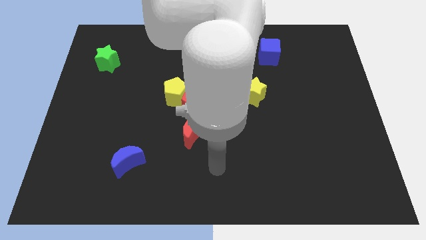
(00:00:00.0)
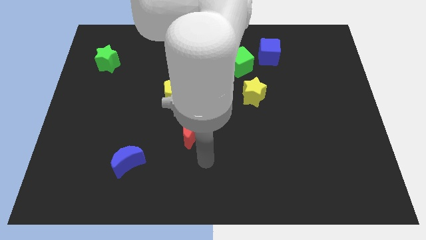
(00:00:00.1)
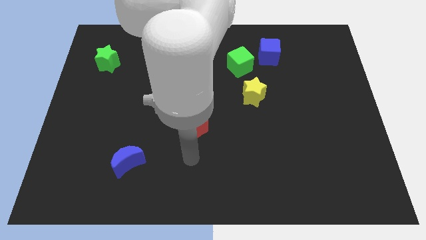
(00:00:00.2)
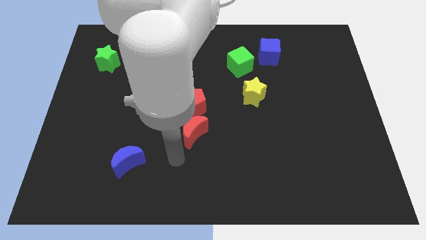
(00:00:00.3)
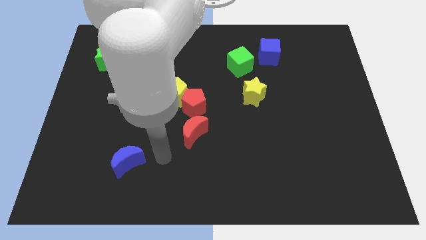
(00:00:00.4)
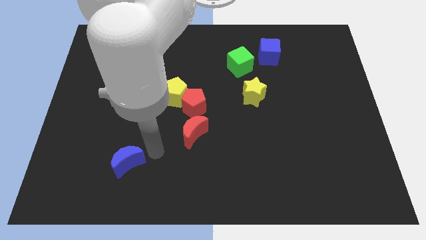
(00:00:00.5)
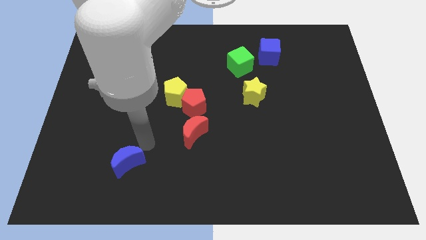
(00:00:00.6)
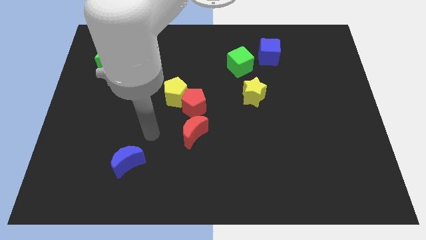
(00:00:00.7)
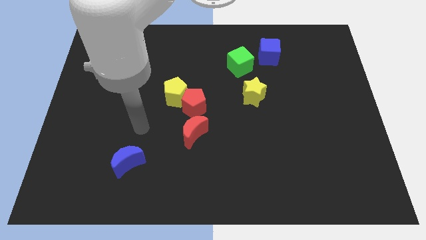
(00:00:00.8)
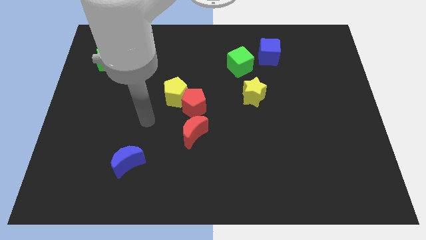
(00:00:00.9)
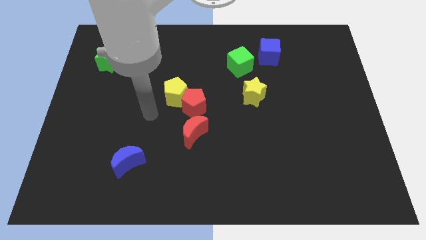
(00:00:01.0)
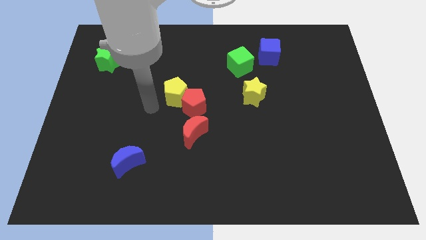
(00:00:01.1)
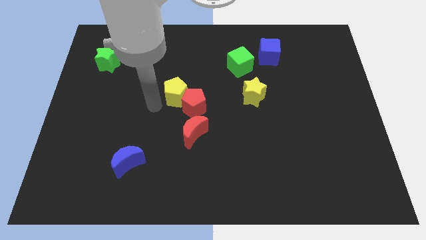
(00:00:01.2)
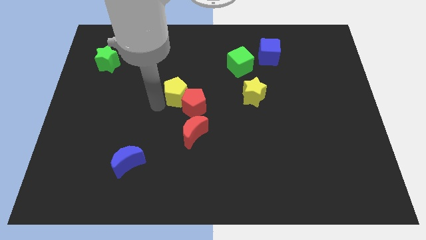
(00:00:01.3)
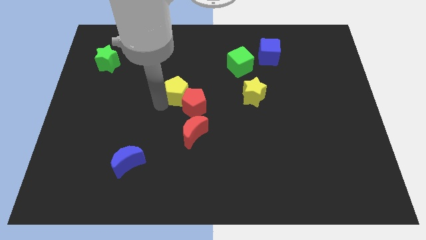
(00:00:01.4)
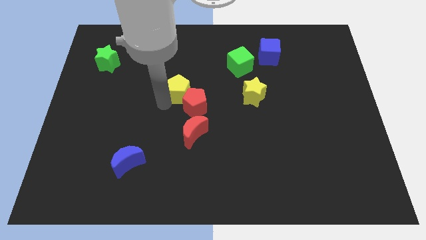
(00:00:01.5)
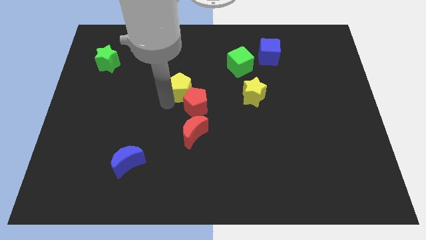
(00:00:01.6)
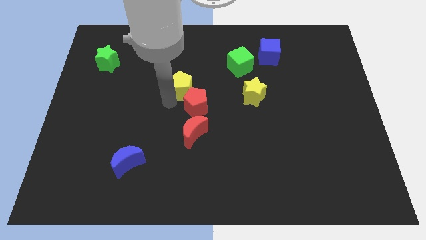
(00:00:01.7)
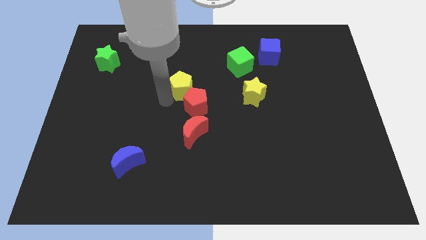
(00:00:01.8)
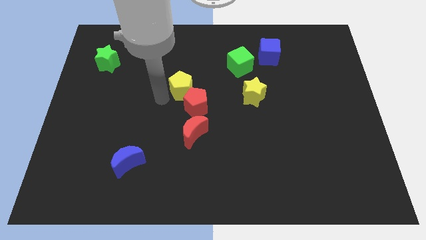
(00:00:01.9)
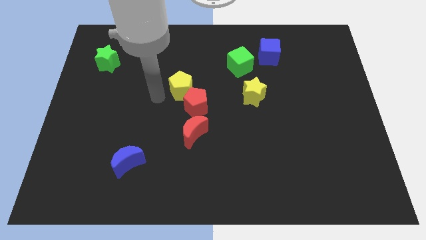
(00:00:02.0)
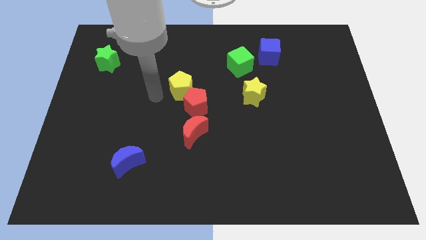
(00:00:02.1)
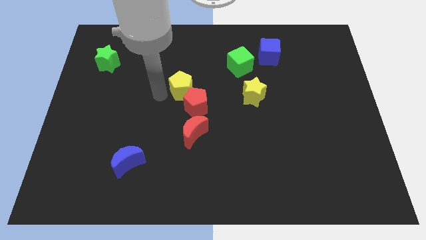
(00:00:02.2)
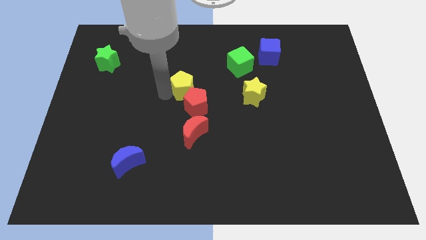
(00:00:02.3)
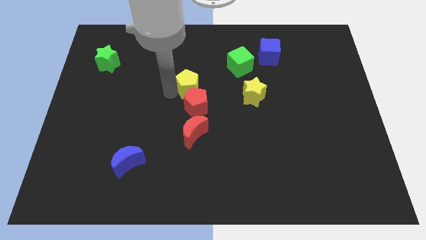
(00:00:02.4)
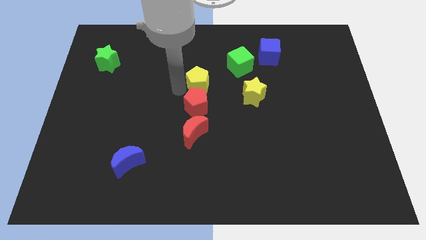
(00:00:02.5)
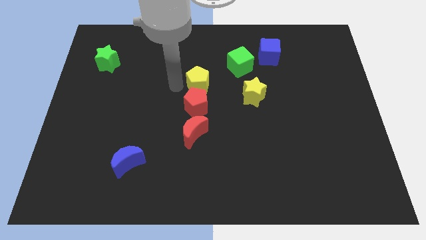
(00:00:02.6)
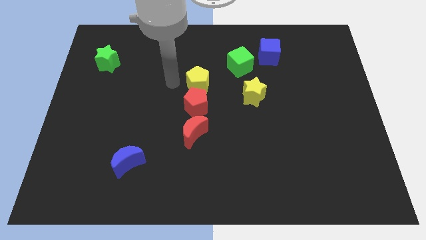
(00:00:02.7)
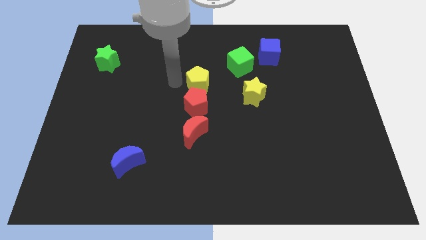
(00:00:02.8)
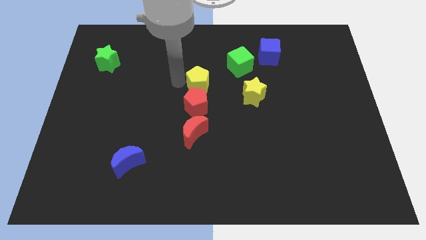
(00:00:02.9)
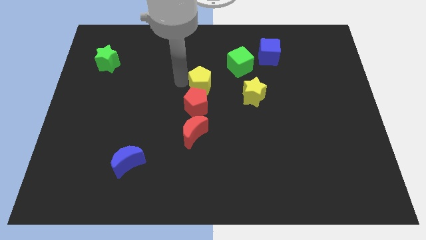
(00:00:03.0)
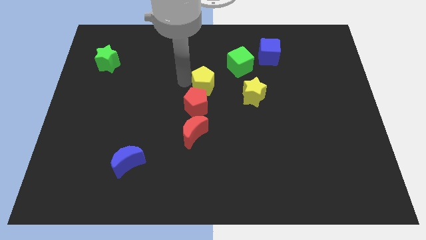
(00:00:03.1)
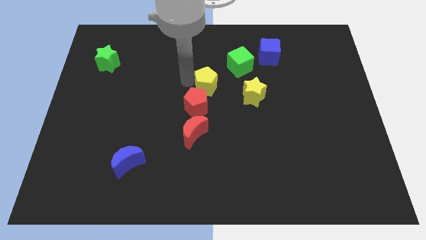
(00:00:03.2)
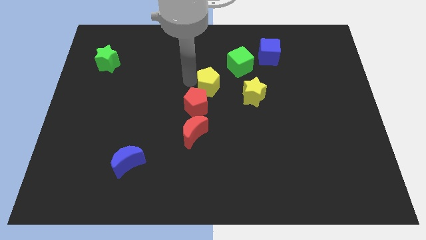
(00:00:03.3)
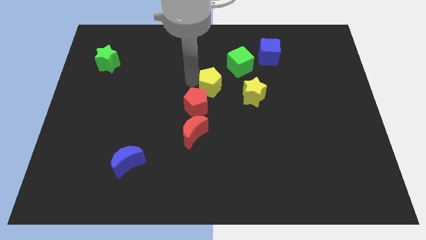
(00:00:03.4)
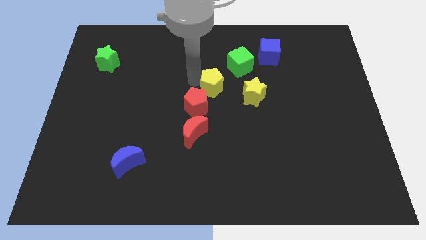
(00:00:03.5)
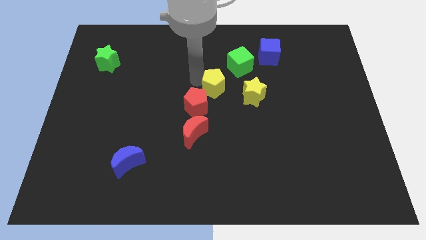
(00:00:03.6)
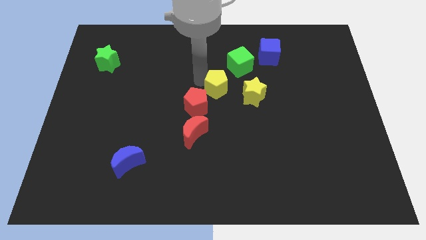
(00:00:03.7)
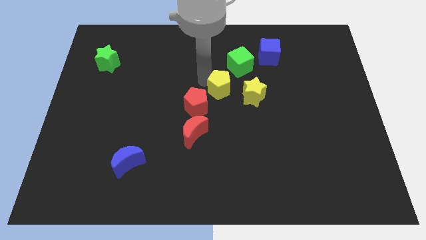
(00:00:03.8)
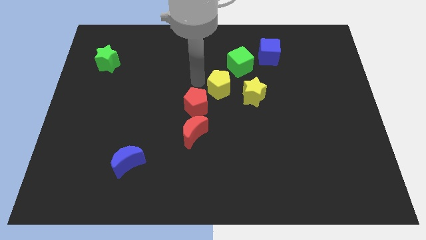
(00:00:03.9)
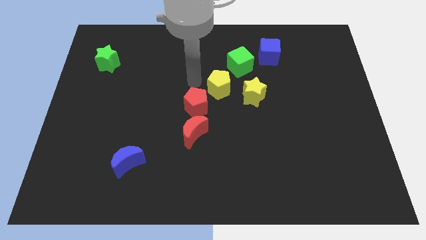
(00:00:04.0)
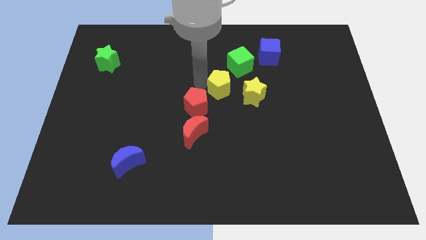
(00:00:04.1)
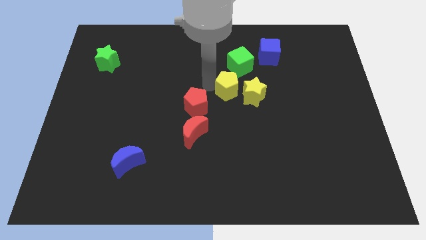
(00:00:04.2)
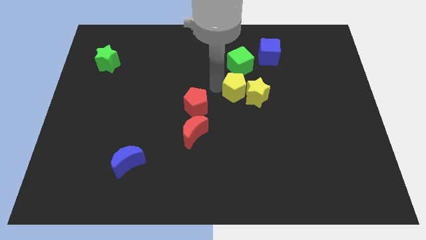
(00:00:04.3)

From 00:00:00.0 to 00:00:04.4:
move the yellow pentagon to the yellow star

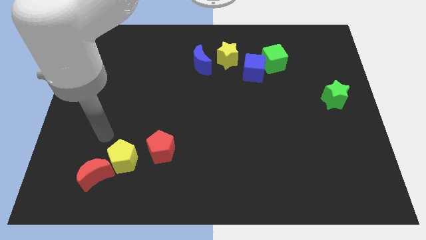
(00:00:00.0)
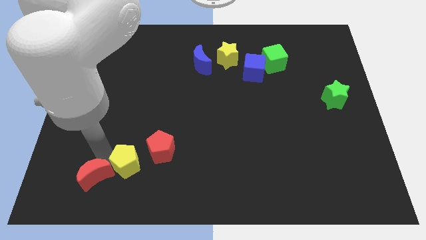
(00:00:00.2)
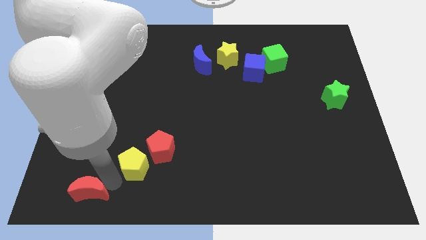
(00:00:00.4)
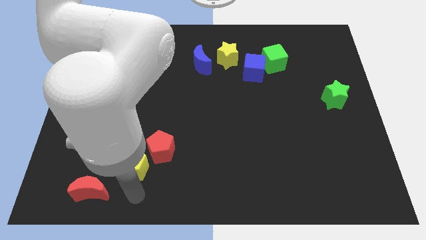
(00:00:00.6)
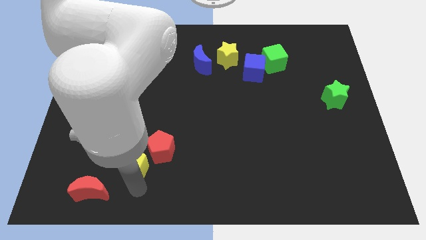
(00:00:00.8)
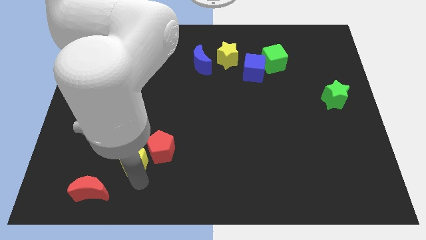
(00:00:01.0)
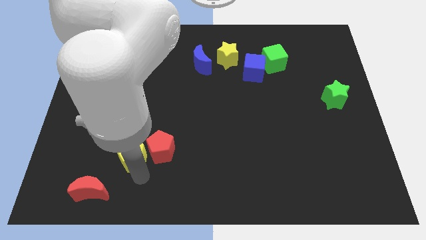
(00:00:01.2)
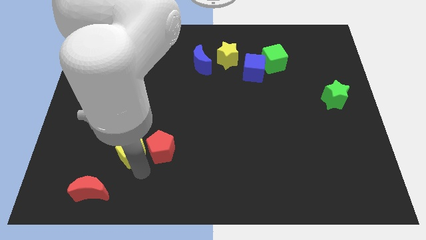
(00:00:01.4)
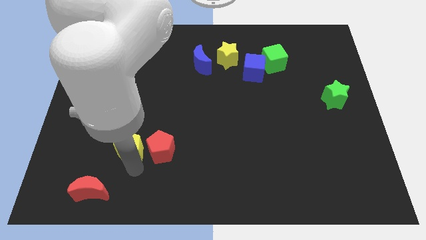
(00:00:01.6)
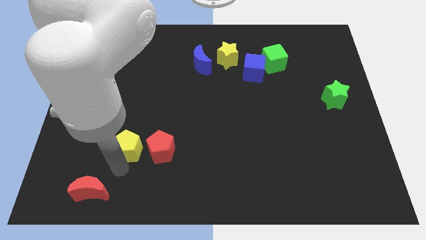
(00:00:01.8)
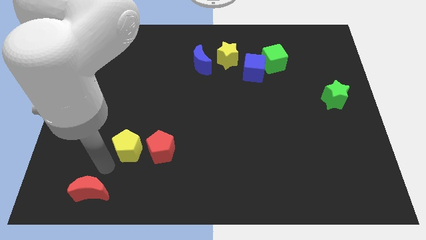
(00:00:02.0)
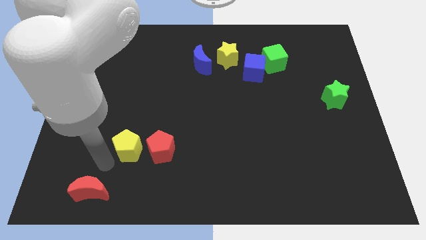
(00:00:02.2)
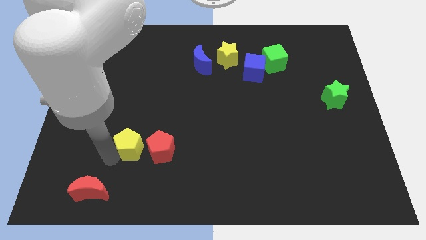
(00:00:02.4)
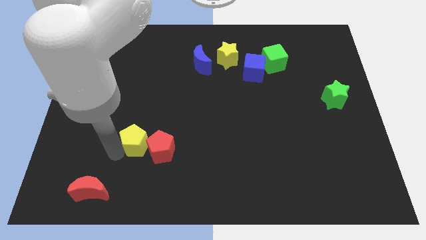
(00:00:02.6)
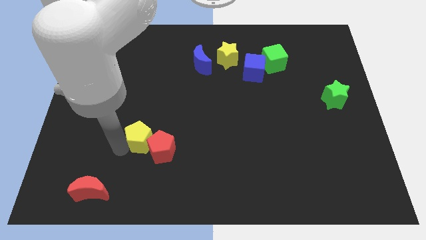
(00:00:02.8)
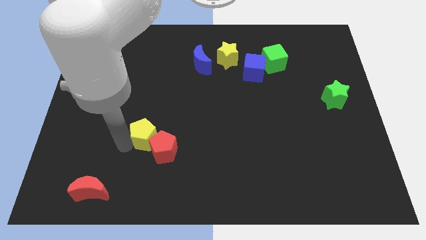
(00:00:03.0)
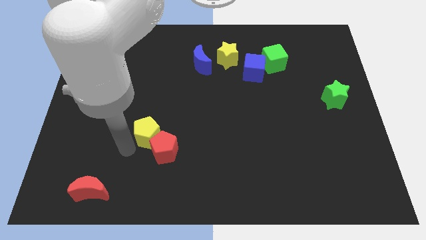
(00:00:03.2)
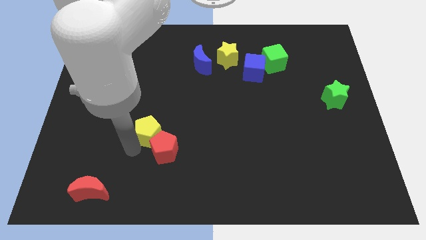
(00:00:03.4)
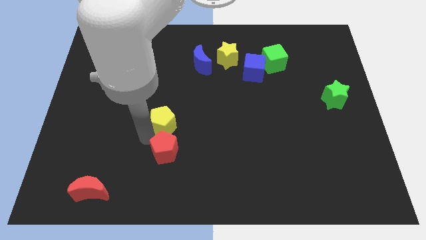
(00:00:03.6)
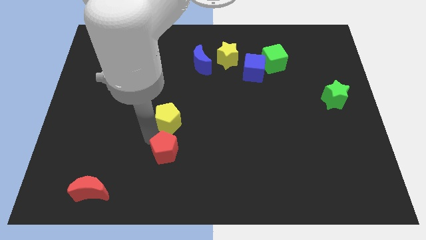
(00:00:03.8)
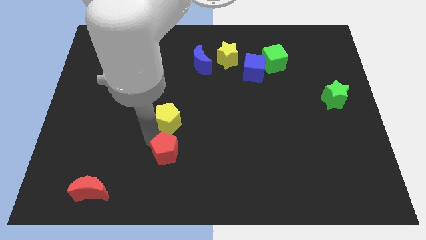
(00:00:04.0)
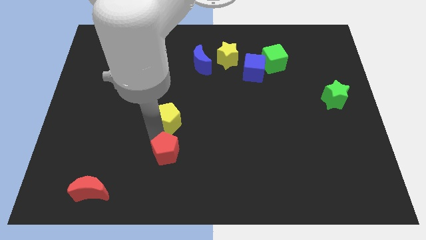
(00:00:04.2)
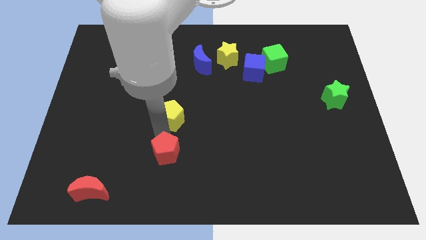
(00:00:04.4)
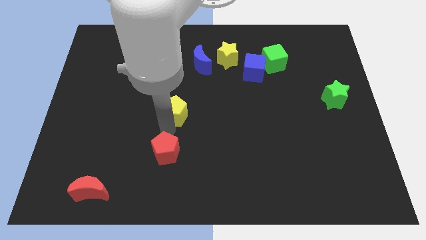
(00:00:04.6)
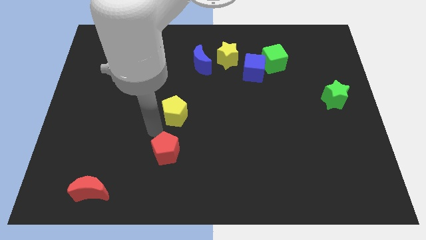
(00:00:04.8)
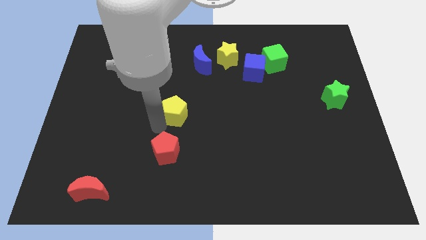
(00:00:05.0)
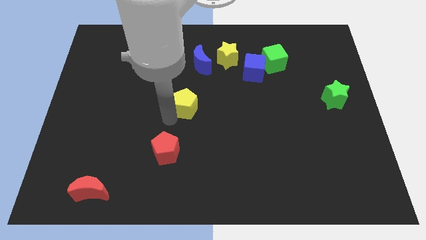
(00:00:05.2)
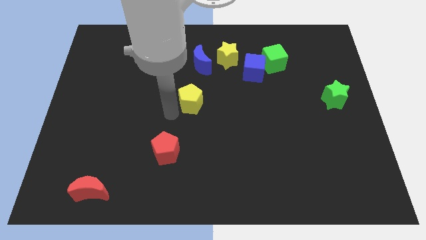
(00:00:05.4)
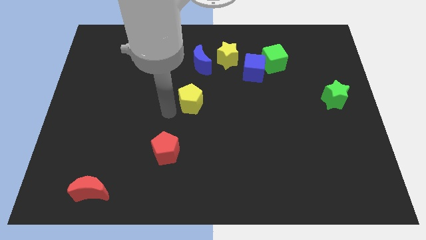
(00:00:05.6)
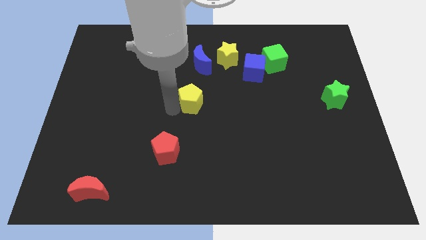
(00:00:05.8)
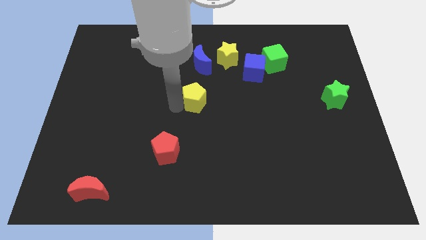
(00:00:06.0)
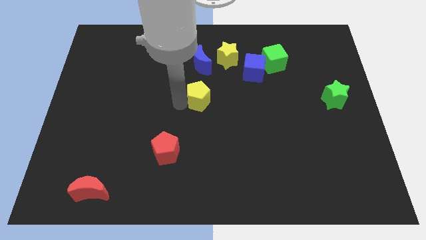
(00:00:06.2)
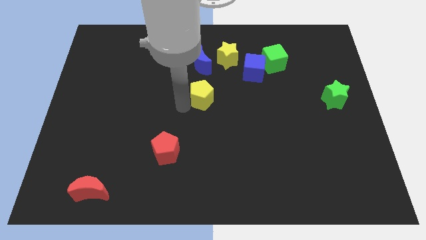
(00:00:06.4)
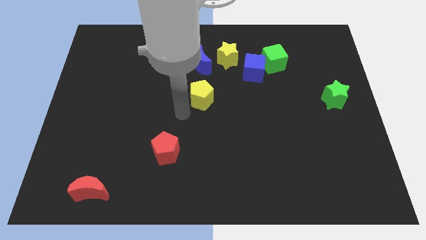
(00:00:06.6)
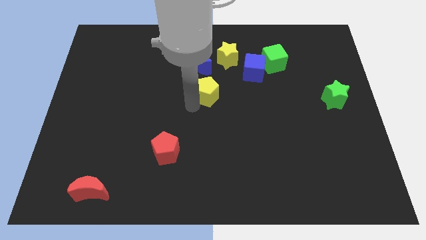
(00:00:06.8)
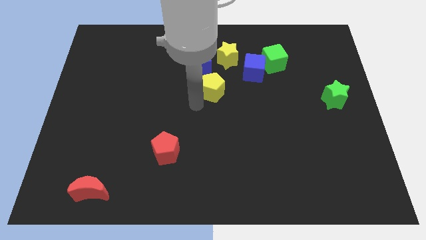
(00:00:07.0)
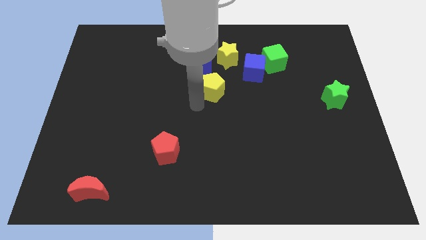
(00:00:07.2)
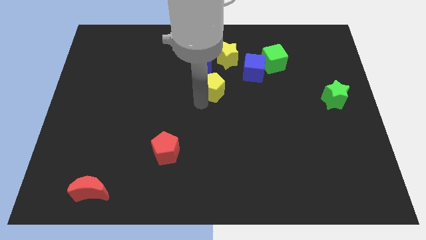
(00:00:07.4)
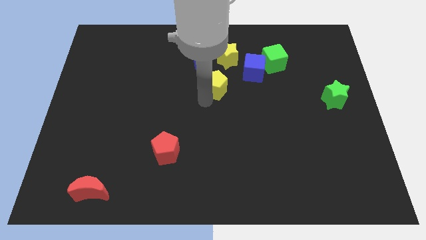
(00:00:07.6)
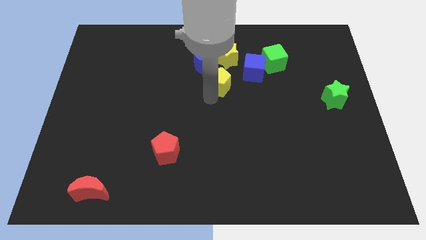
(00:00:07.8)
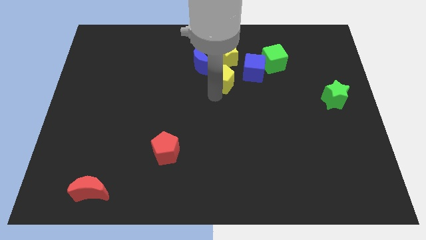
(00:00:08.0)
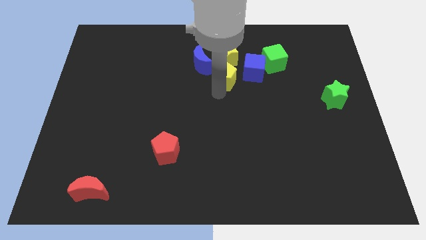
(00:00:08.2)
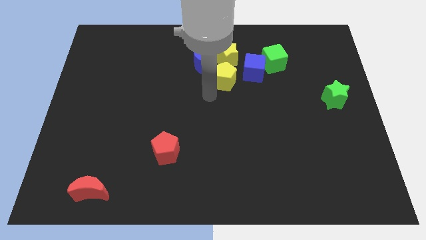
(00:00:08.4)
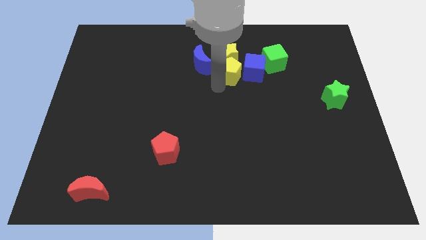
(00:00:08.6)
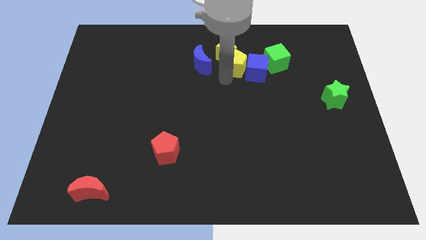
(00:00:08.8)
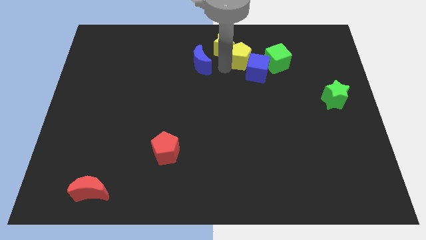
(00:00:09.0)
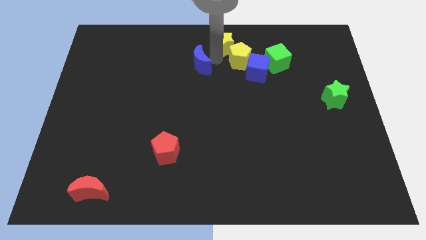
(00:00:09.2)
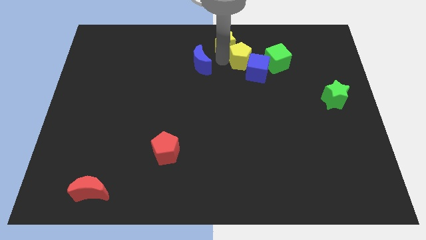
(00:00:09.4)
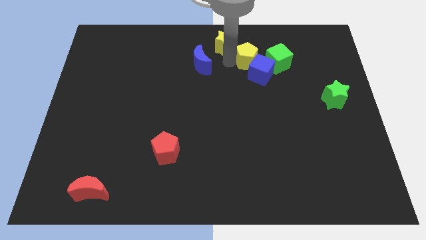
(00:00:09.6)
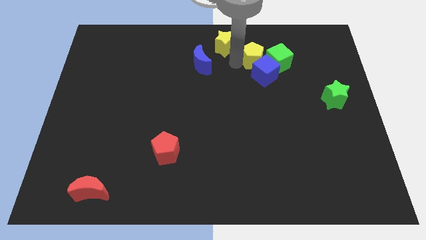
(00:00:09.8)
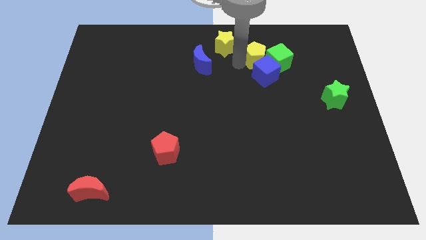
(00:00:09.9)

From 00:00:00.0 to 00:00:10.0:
slide the yellow pentagon to the green cube
